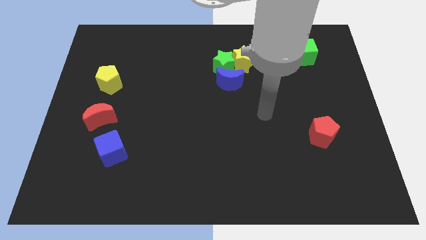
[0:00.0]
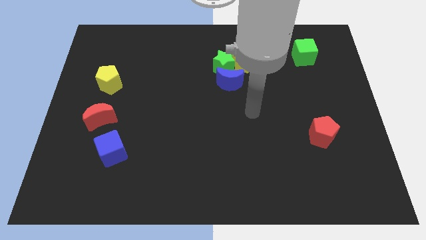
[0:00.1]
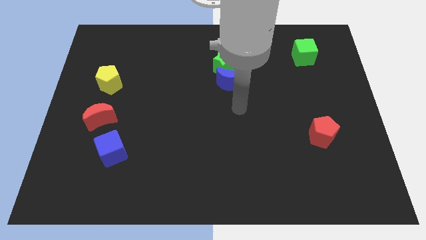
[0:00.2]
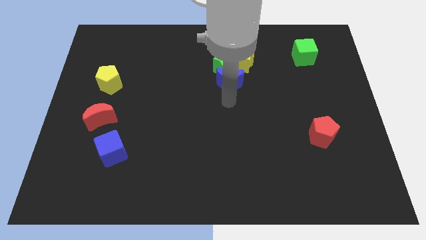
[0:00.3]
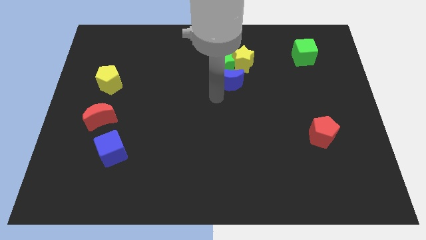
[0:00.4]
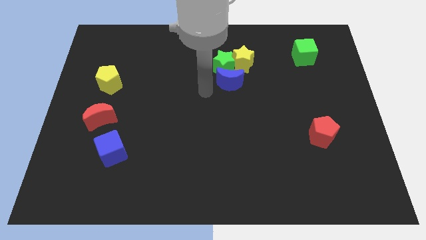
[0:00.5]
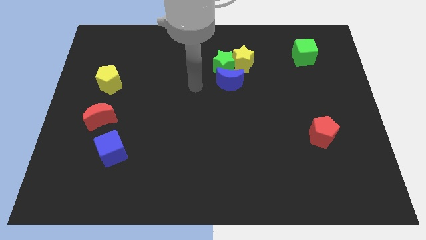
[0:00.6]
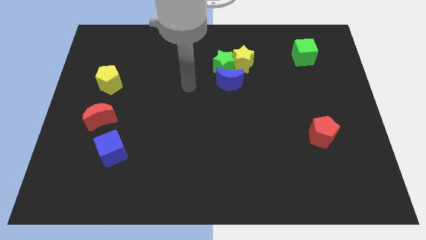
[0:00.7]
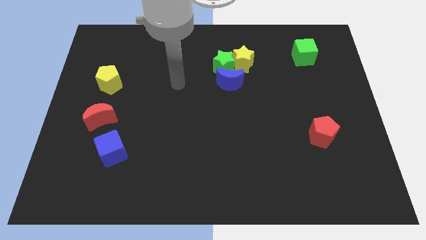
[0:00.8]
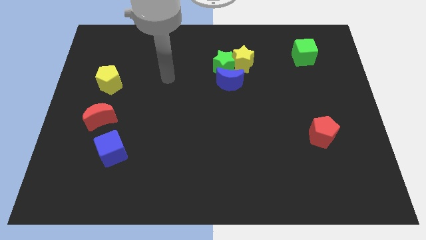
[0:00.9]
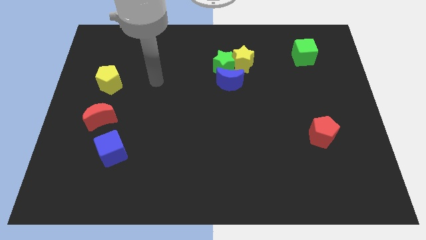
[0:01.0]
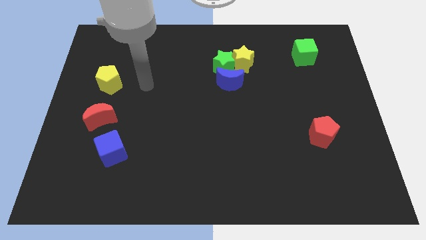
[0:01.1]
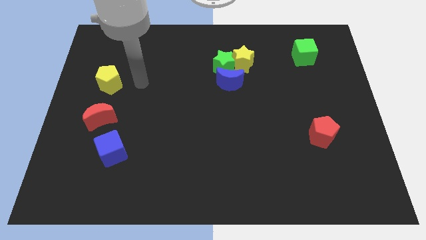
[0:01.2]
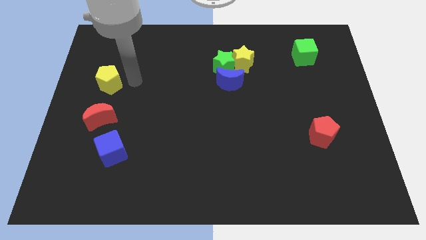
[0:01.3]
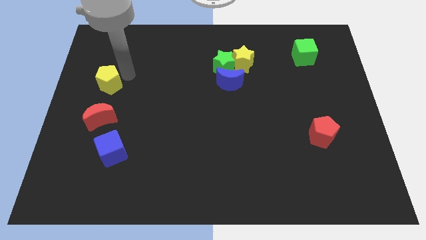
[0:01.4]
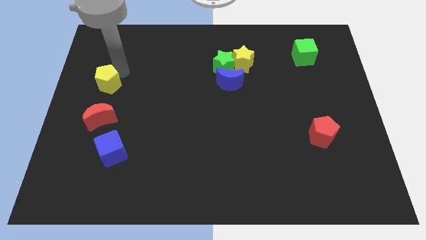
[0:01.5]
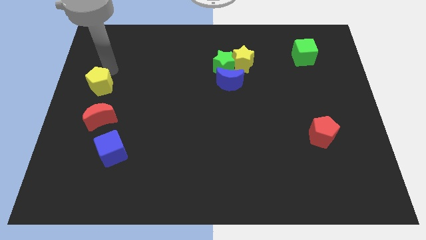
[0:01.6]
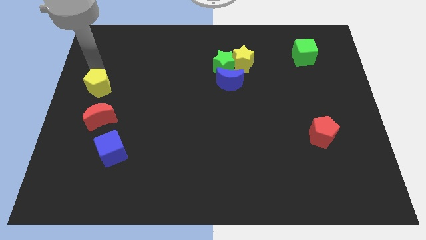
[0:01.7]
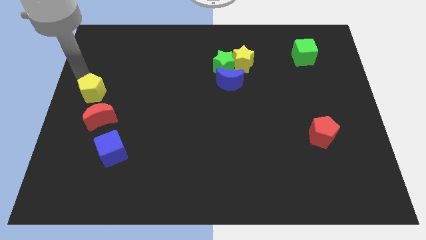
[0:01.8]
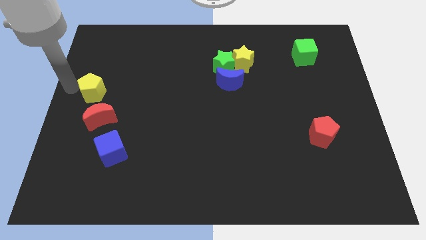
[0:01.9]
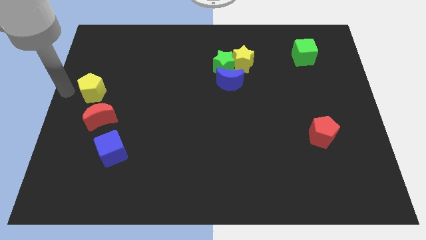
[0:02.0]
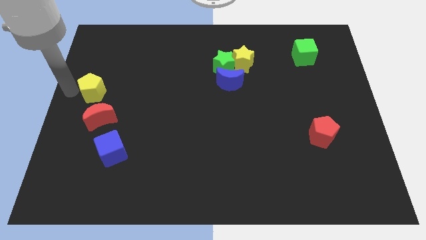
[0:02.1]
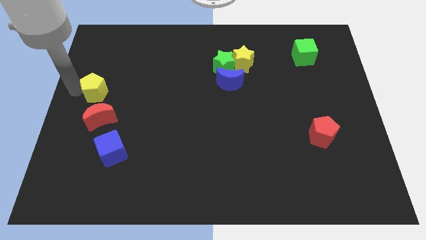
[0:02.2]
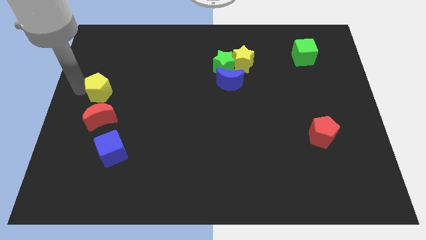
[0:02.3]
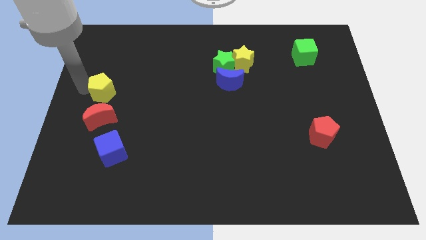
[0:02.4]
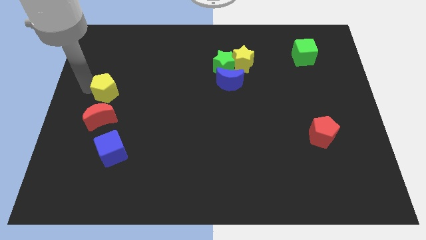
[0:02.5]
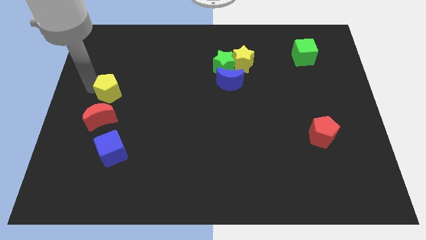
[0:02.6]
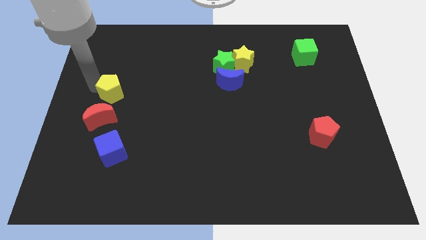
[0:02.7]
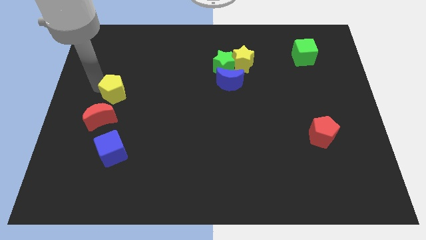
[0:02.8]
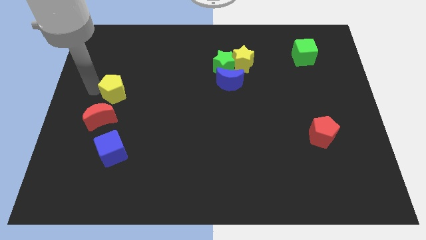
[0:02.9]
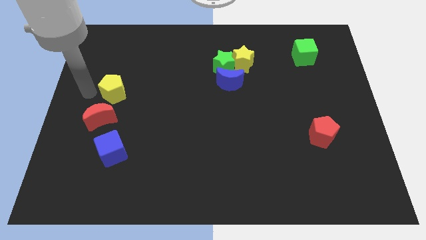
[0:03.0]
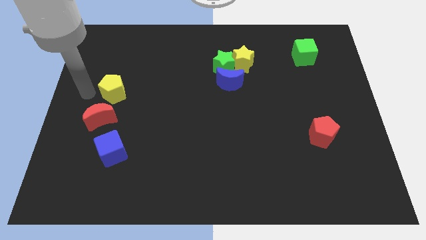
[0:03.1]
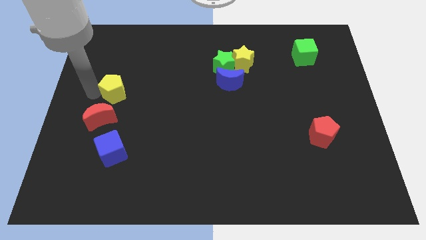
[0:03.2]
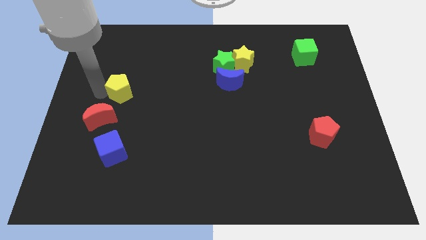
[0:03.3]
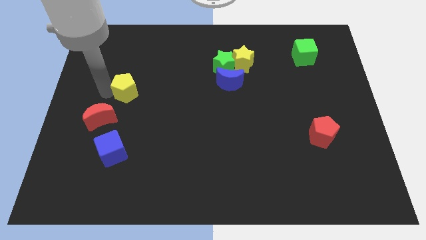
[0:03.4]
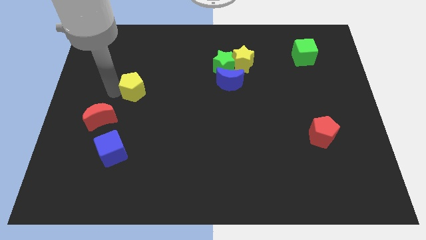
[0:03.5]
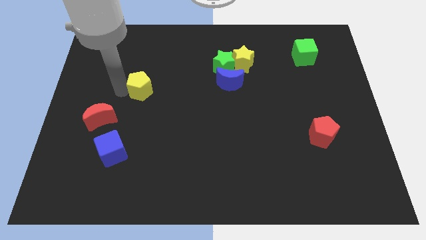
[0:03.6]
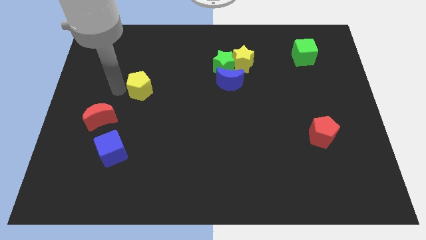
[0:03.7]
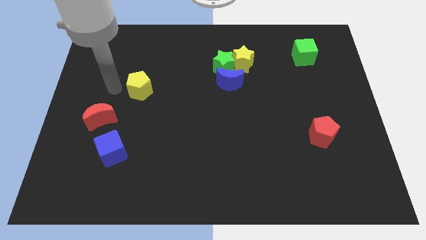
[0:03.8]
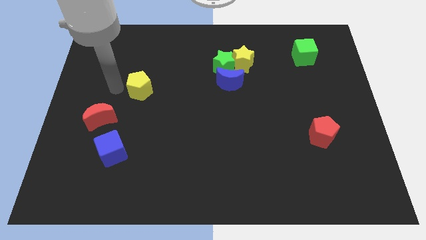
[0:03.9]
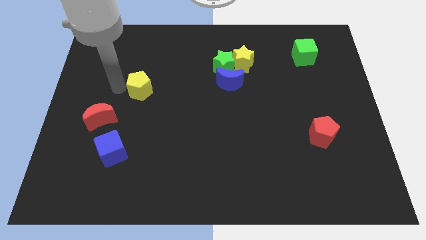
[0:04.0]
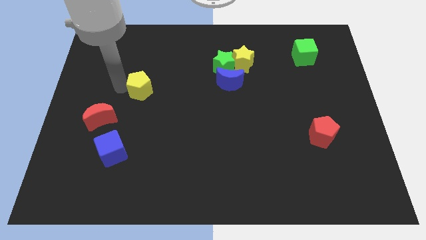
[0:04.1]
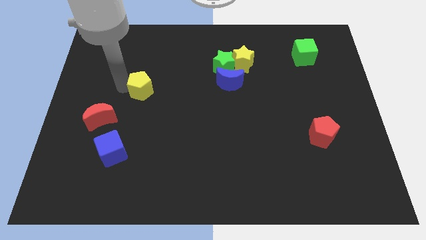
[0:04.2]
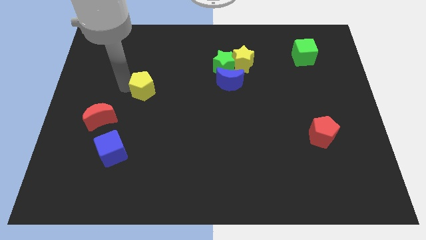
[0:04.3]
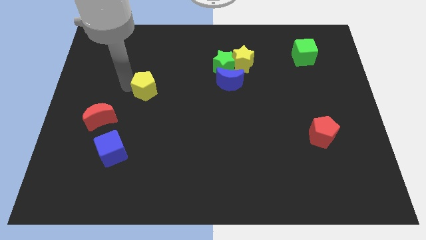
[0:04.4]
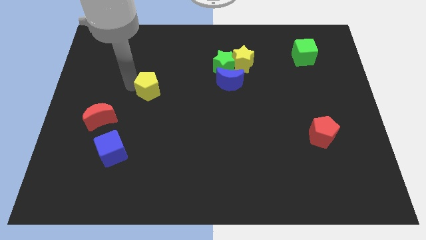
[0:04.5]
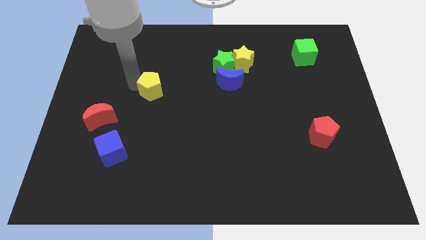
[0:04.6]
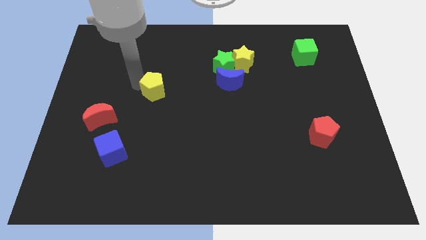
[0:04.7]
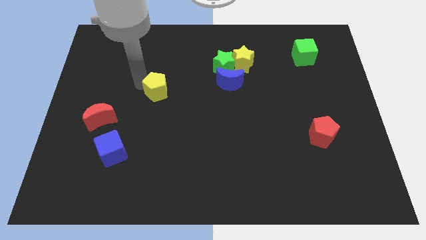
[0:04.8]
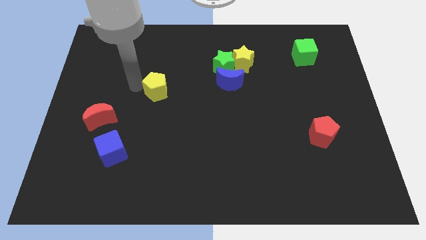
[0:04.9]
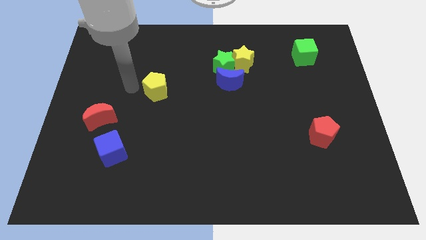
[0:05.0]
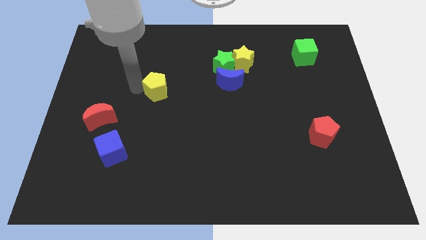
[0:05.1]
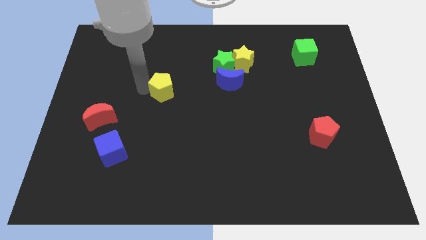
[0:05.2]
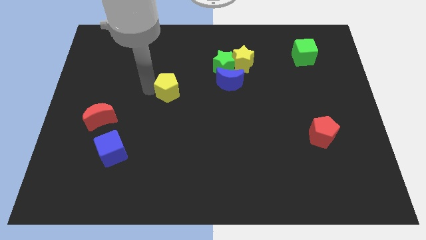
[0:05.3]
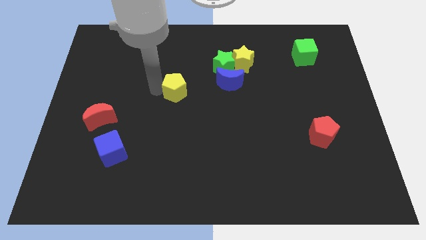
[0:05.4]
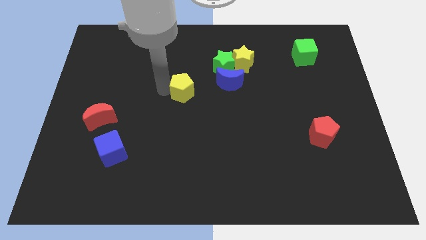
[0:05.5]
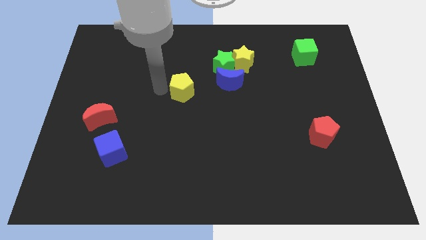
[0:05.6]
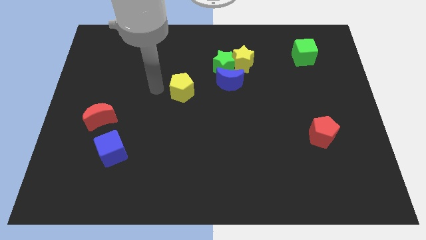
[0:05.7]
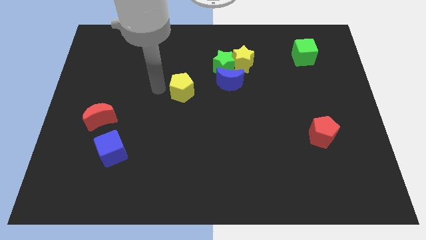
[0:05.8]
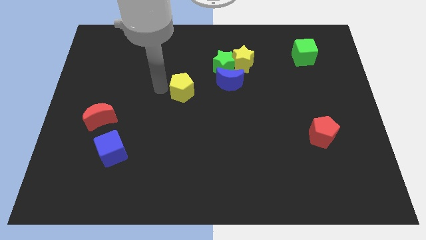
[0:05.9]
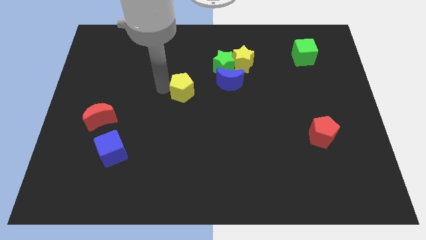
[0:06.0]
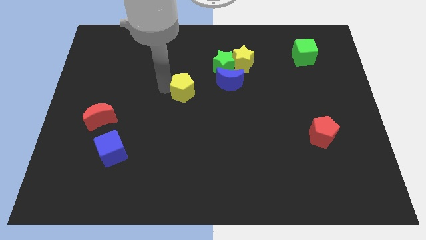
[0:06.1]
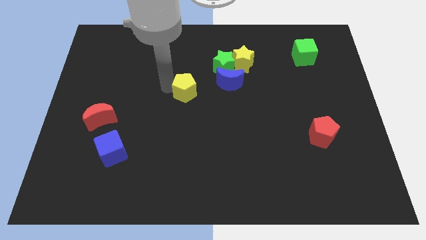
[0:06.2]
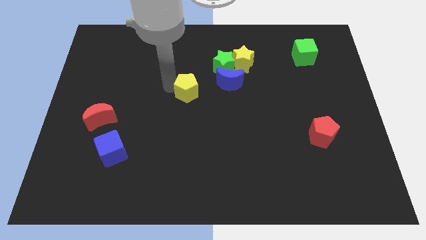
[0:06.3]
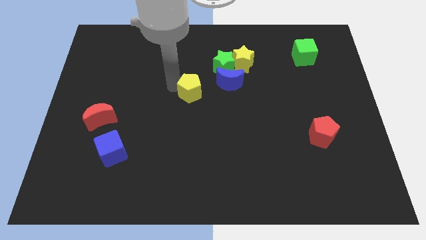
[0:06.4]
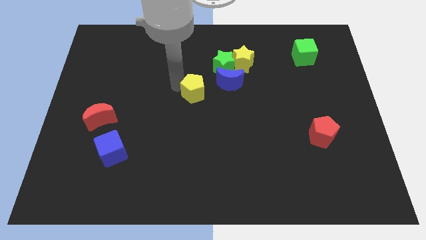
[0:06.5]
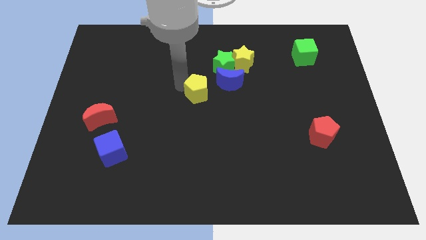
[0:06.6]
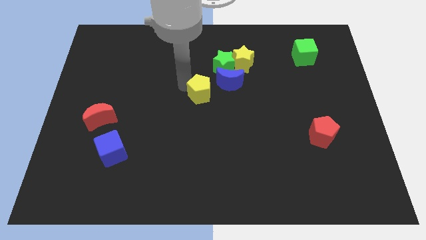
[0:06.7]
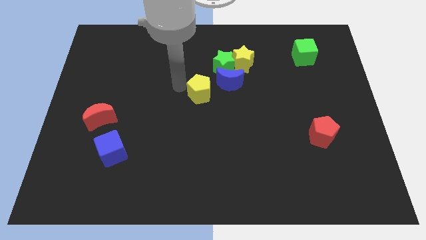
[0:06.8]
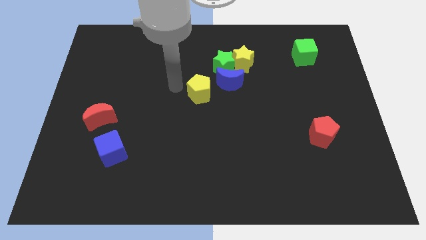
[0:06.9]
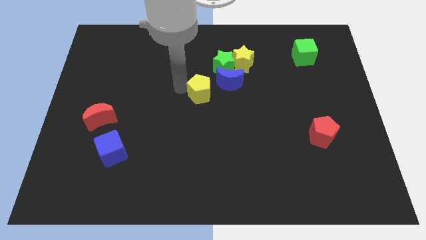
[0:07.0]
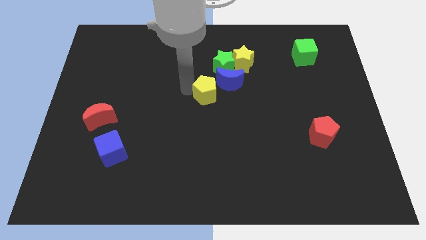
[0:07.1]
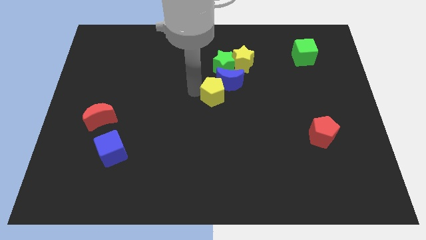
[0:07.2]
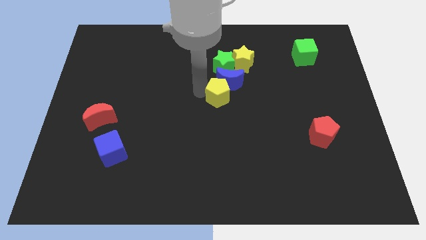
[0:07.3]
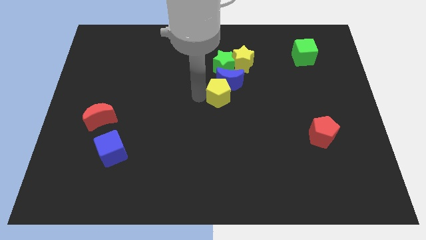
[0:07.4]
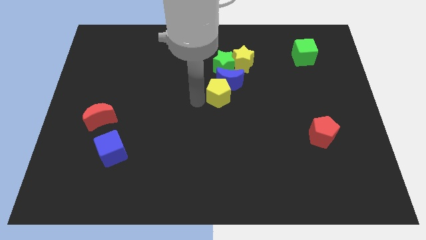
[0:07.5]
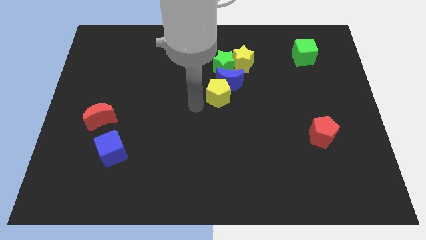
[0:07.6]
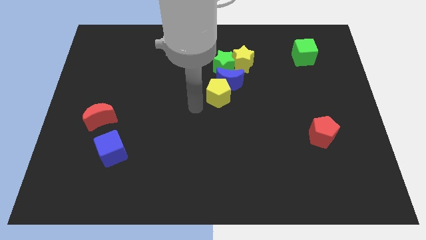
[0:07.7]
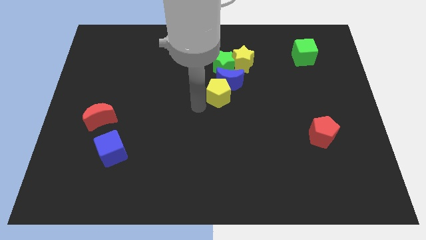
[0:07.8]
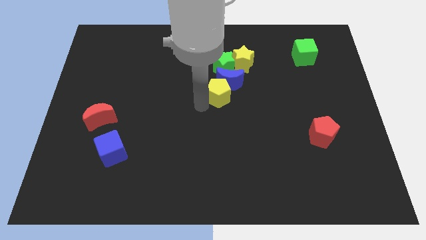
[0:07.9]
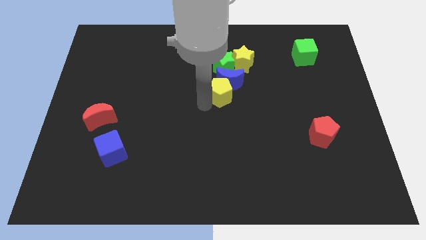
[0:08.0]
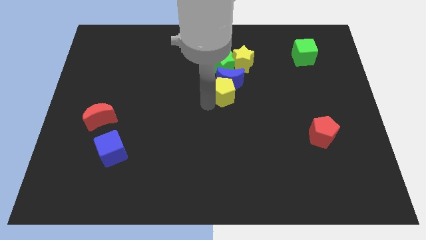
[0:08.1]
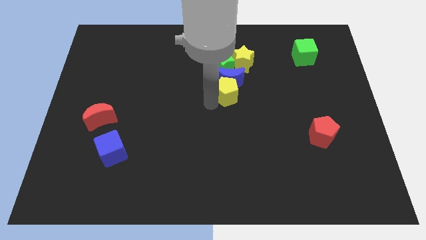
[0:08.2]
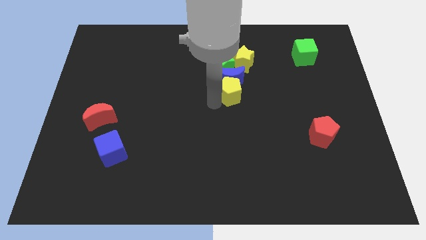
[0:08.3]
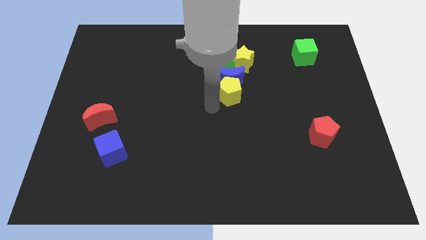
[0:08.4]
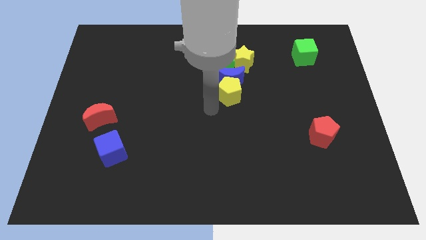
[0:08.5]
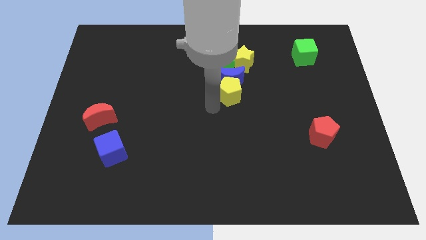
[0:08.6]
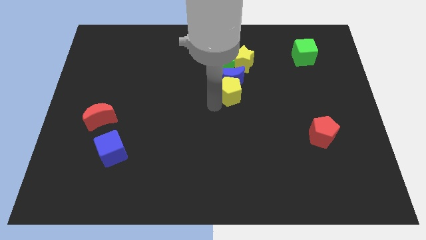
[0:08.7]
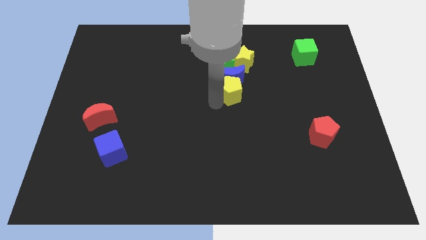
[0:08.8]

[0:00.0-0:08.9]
move the yellow pentagon diagonally down and to the right of the green star
